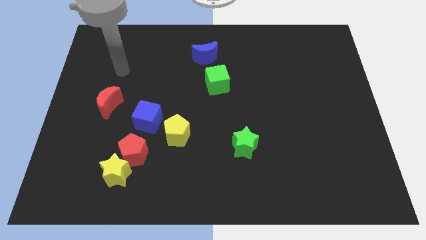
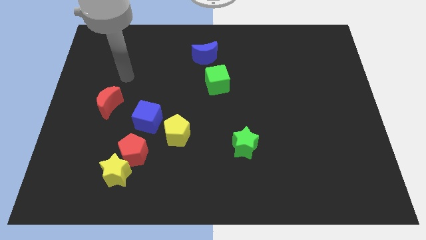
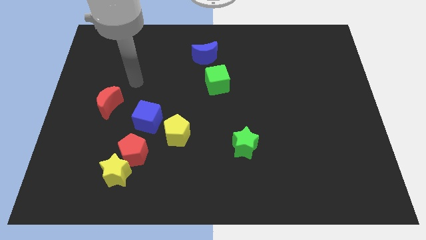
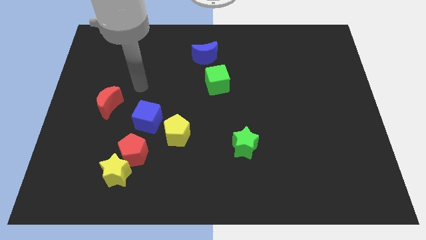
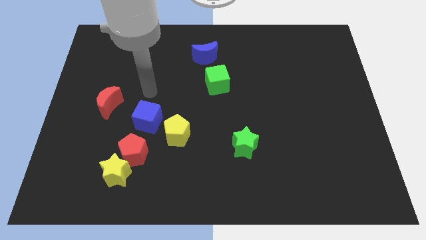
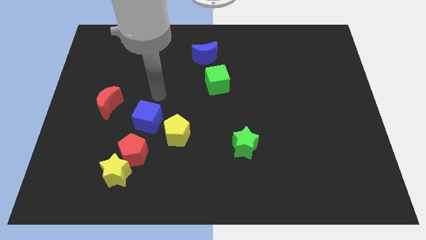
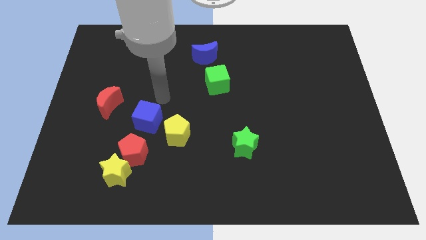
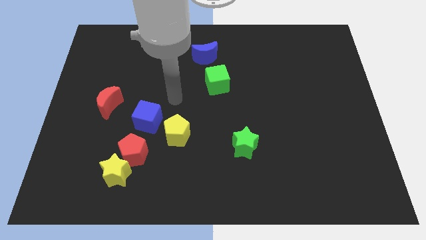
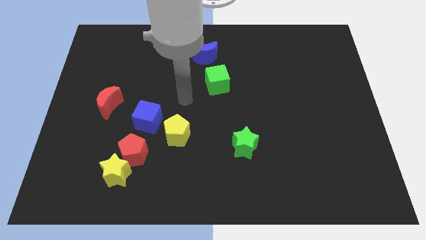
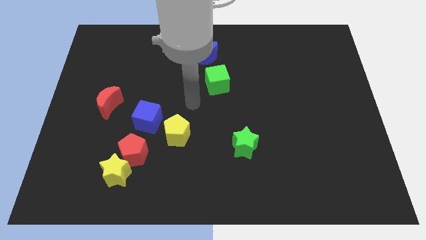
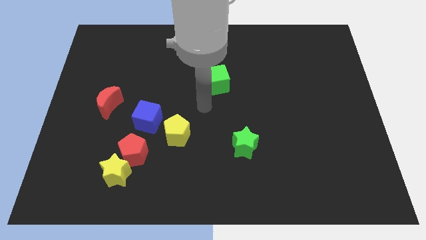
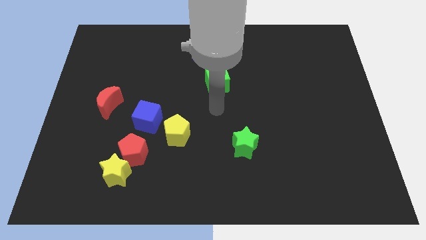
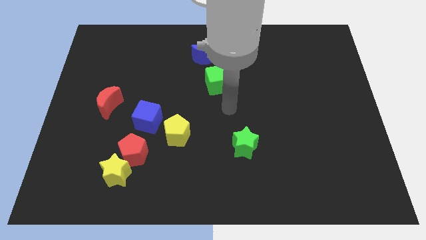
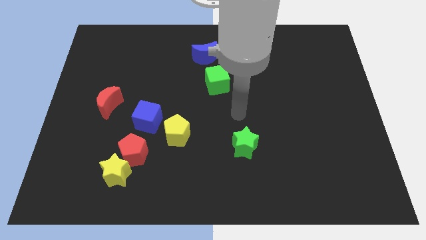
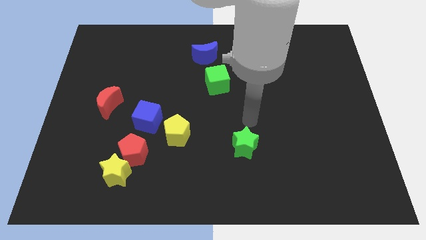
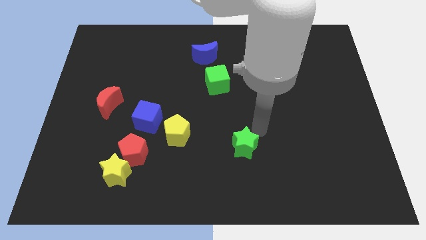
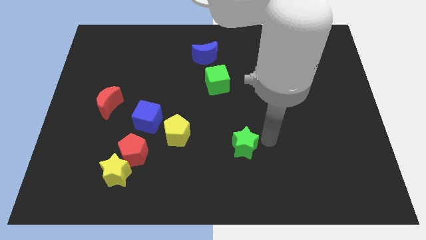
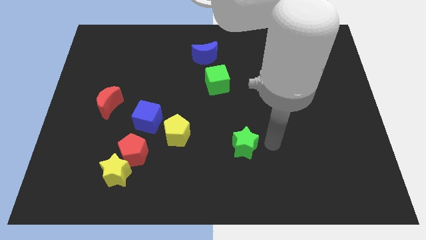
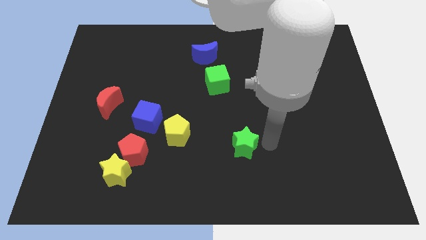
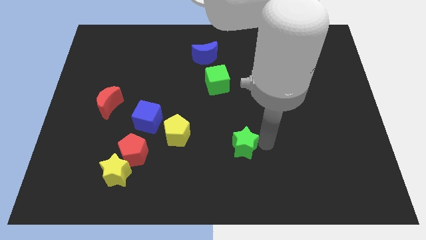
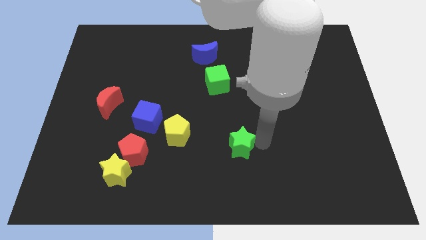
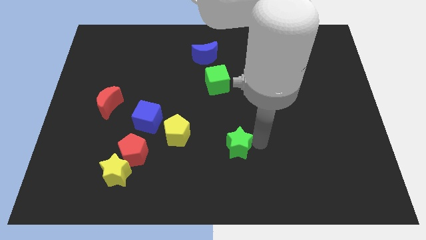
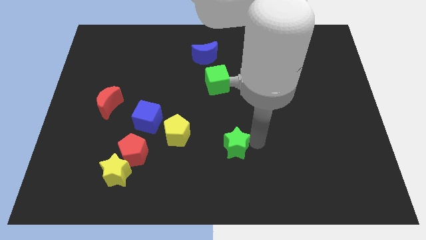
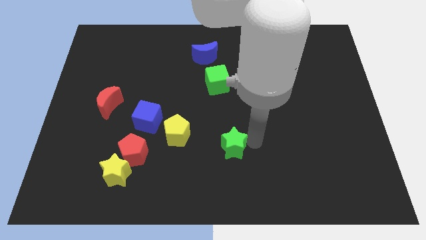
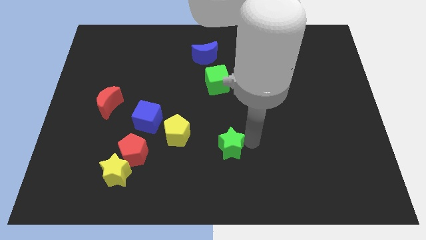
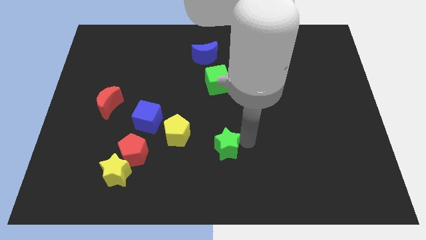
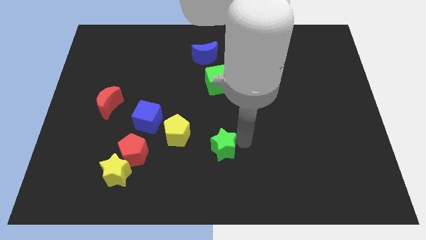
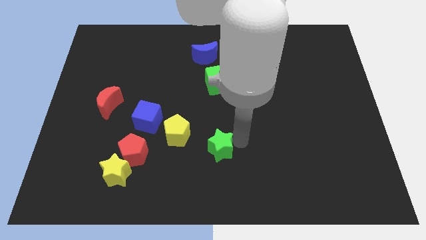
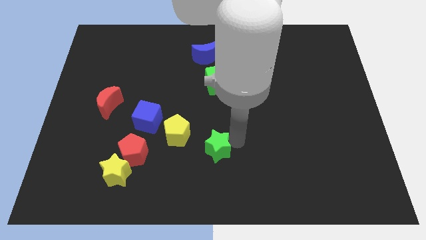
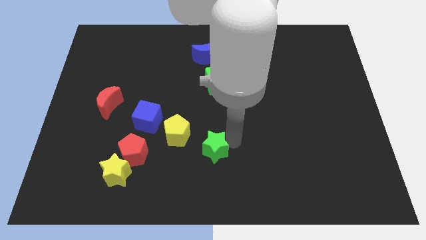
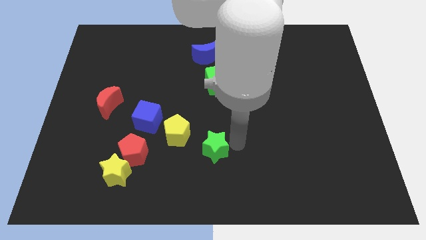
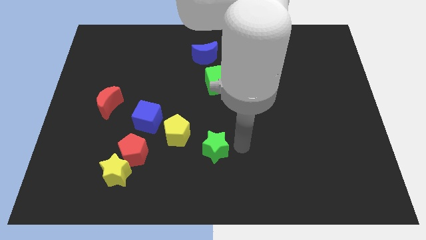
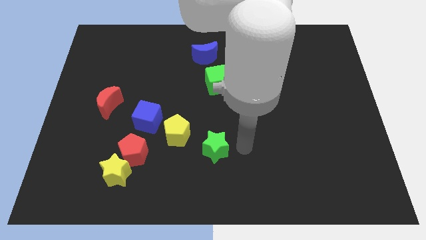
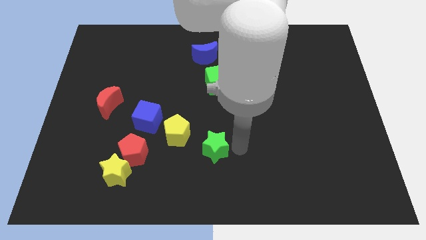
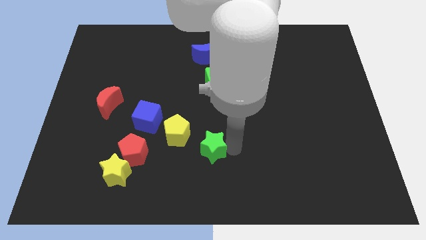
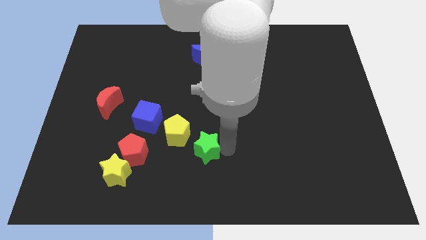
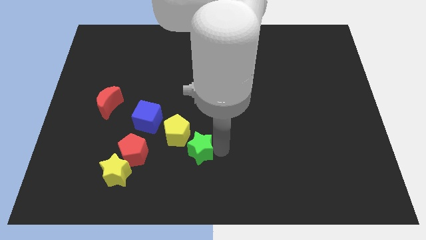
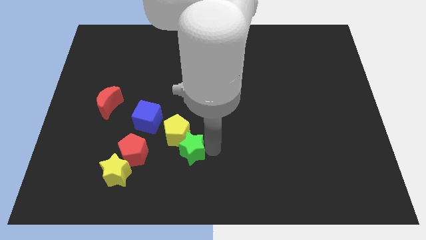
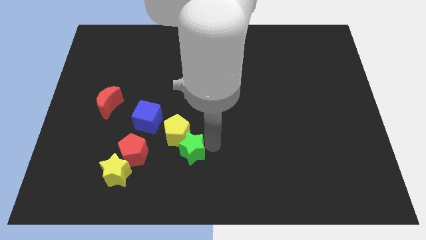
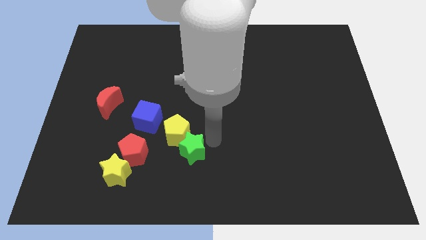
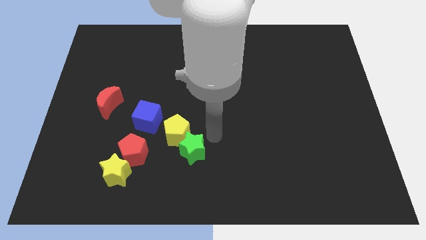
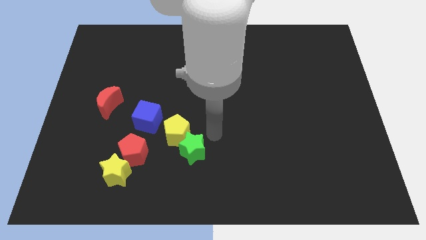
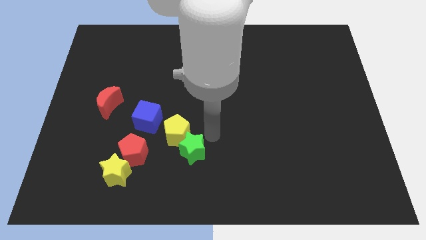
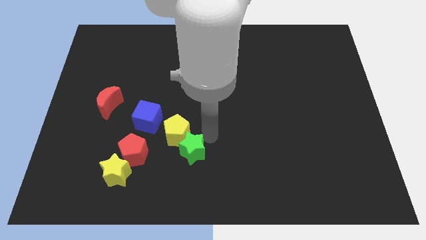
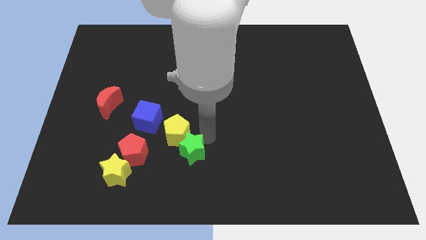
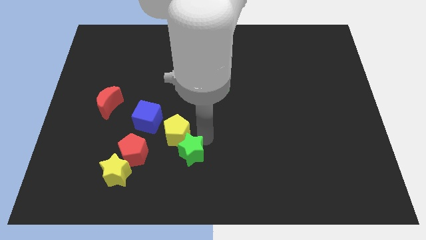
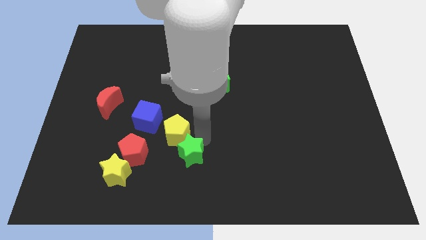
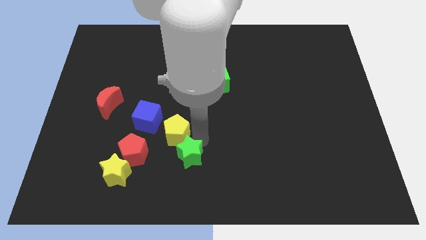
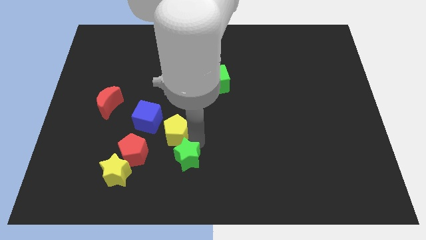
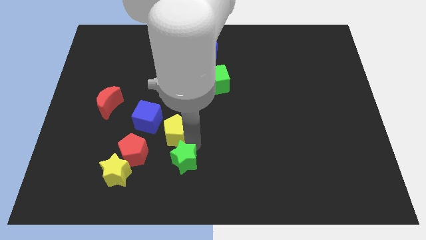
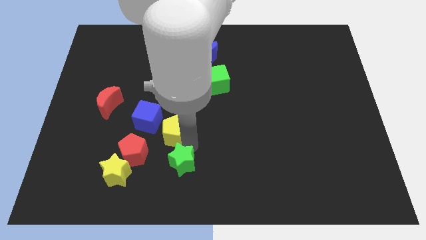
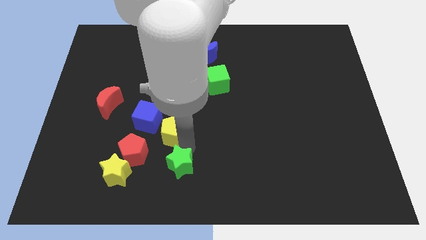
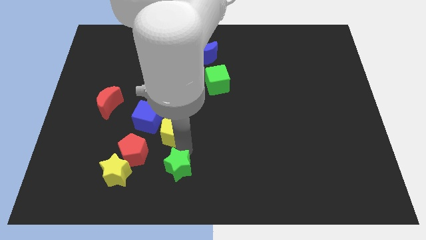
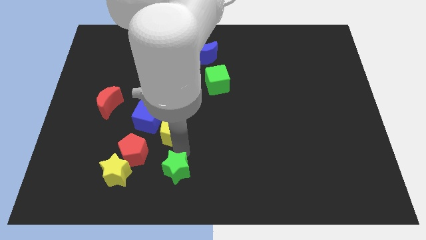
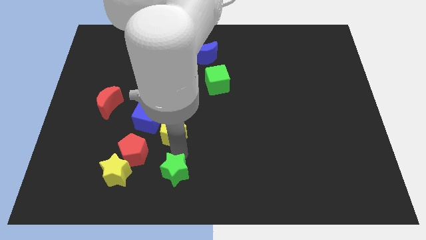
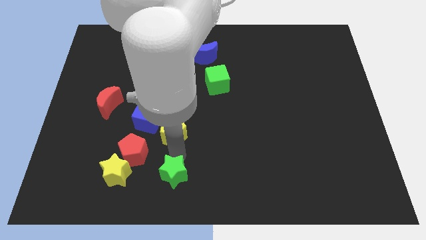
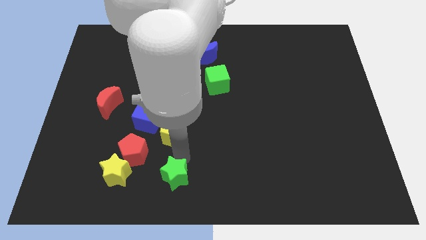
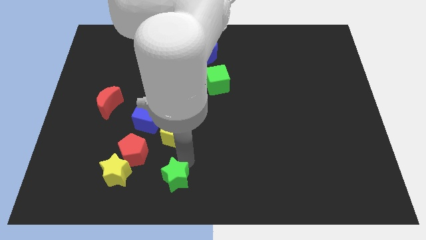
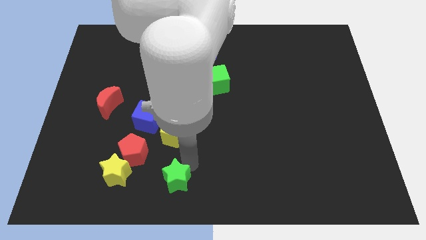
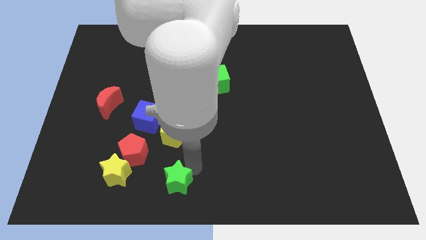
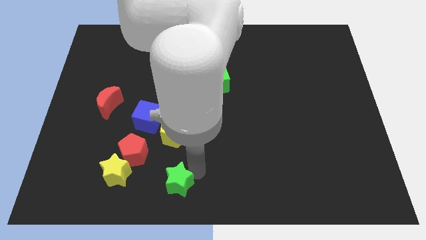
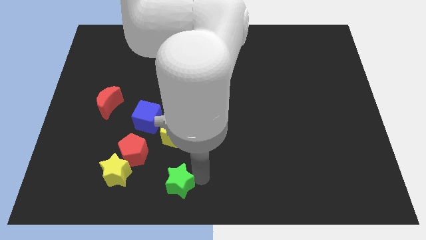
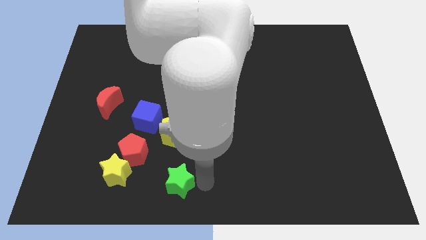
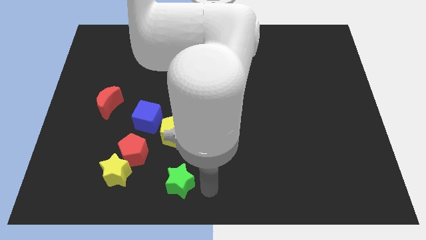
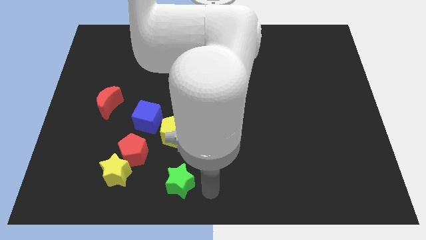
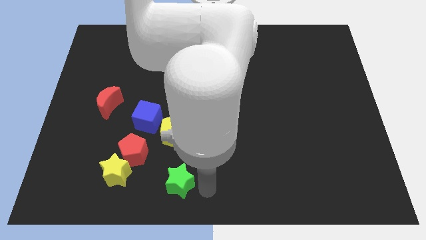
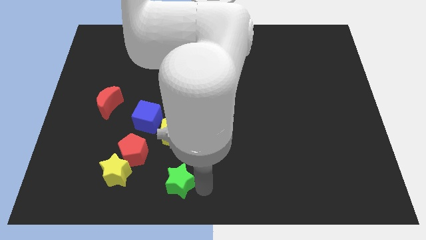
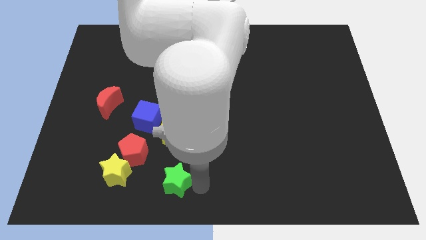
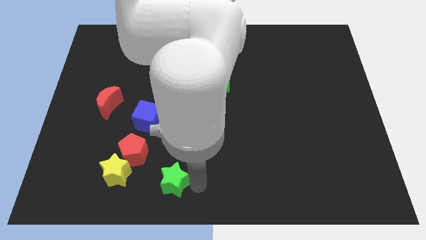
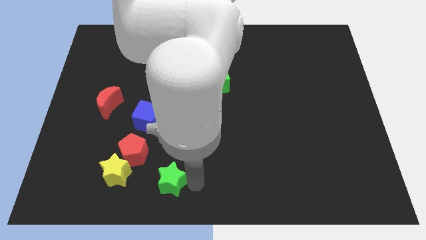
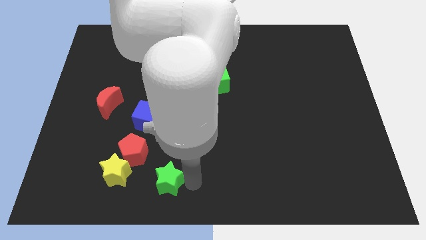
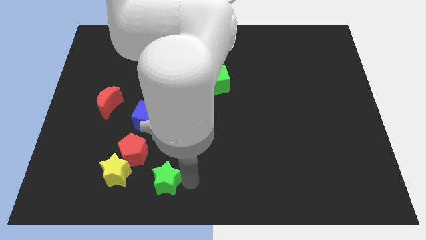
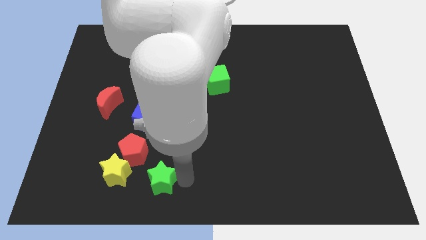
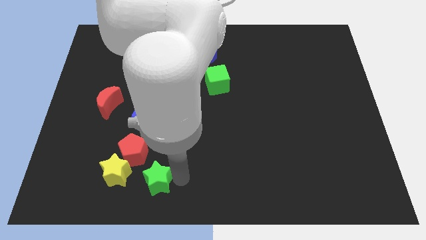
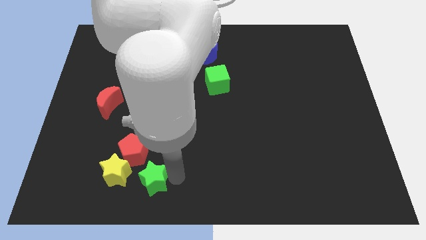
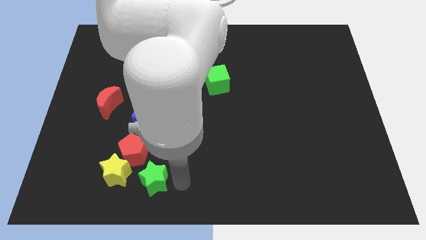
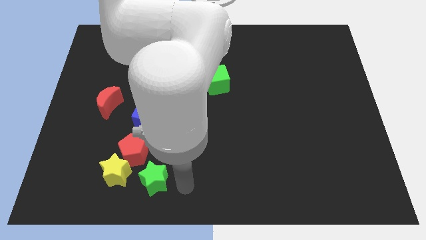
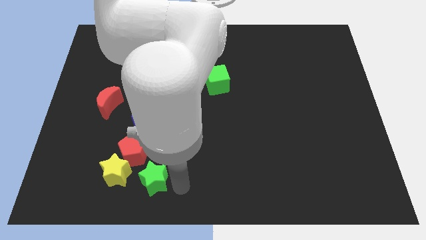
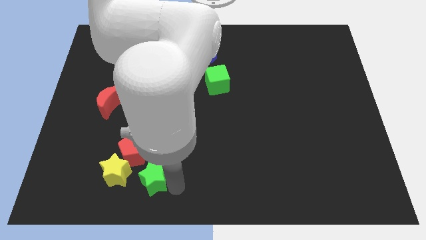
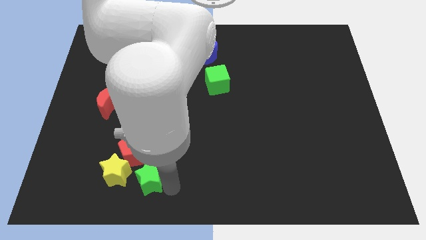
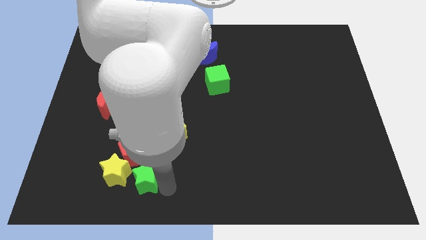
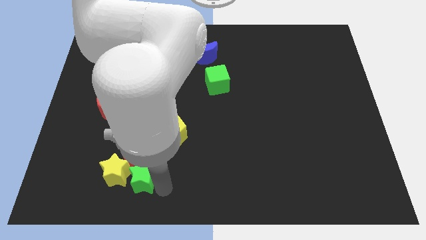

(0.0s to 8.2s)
put the green star to the yellow star
